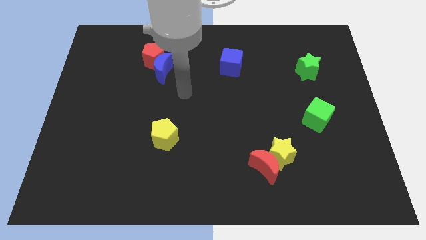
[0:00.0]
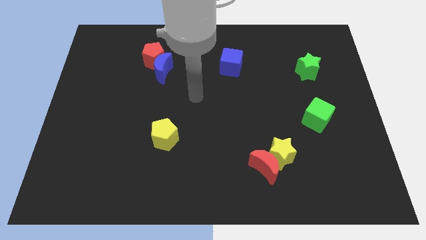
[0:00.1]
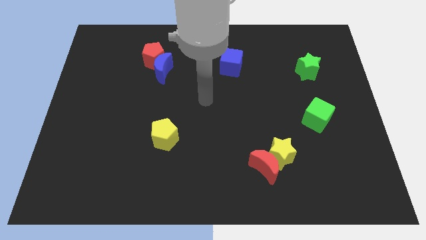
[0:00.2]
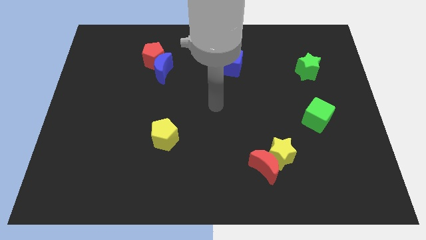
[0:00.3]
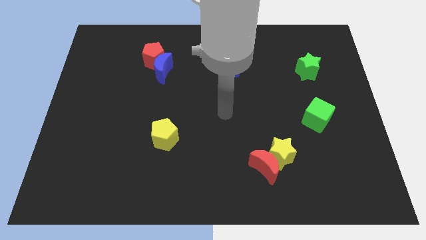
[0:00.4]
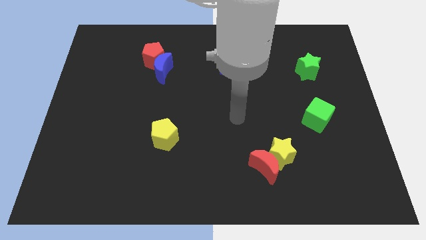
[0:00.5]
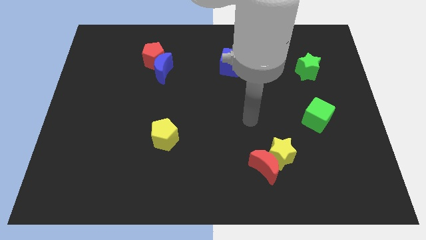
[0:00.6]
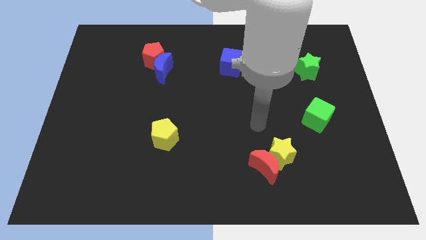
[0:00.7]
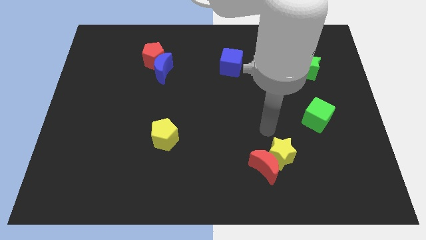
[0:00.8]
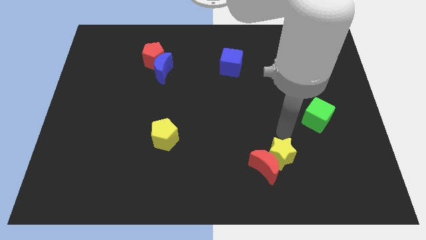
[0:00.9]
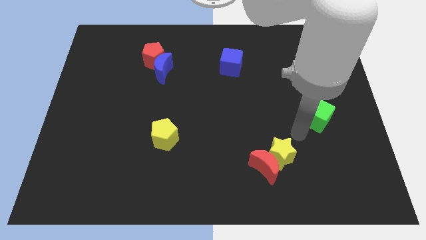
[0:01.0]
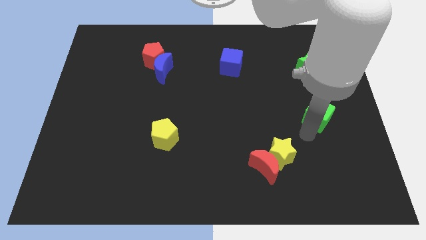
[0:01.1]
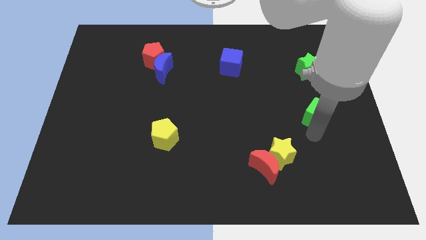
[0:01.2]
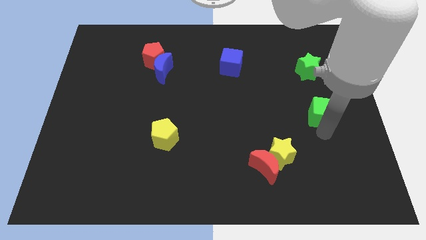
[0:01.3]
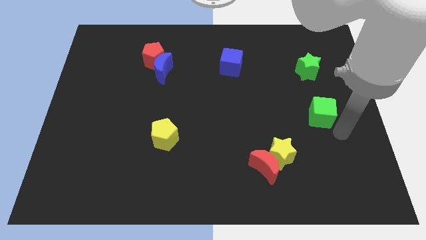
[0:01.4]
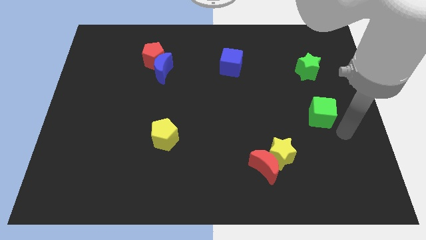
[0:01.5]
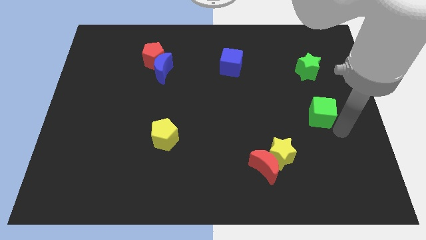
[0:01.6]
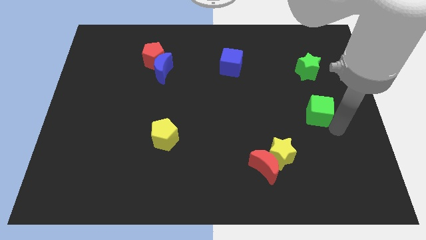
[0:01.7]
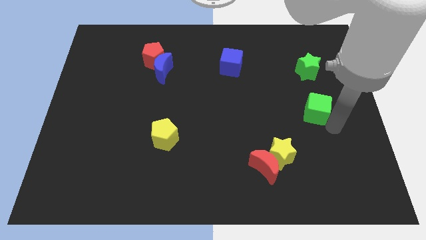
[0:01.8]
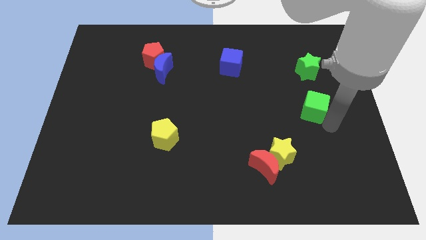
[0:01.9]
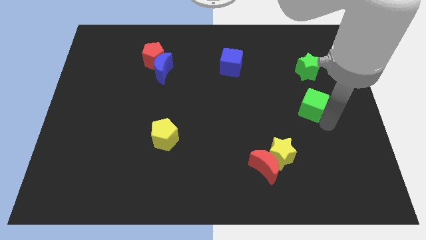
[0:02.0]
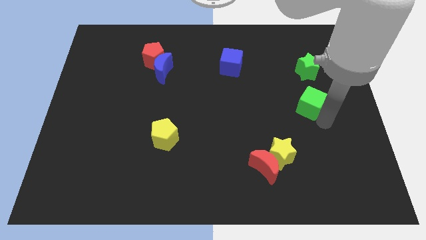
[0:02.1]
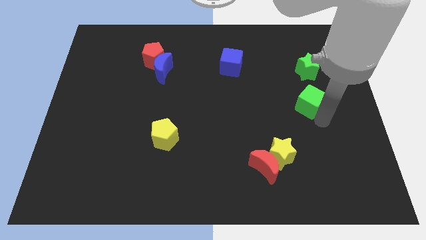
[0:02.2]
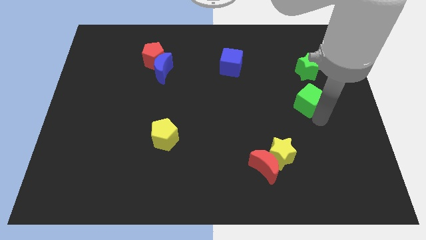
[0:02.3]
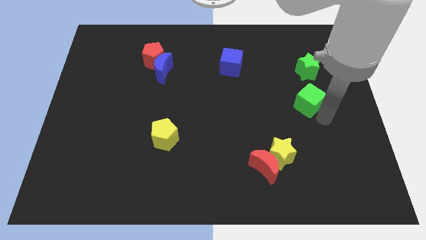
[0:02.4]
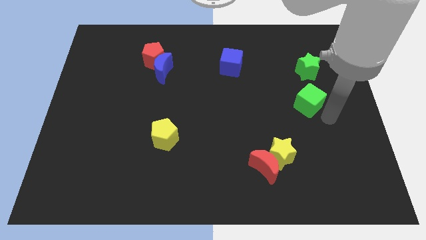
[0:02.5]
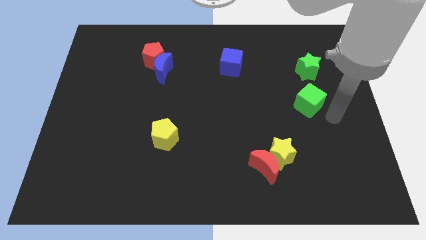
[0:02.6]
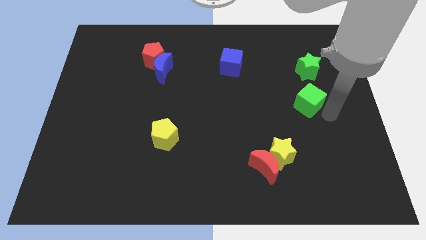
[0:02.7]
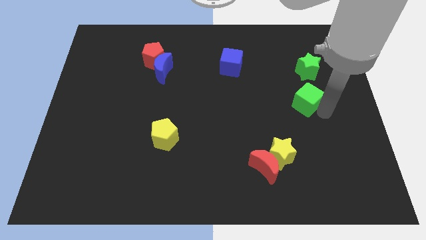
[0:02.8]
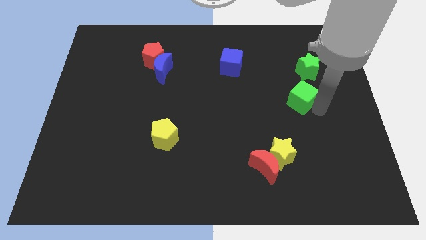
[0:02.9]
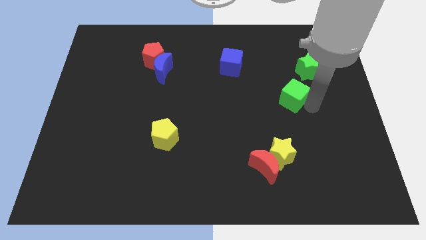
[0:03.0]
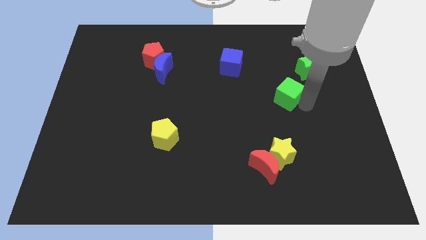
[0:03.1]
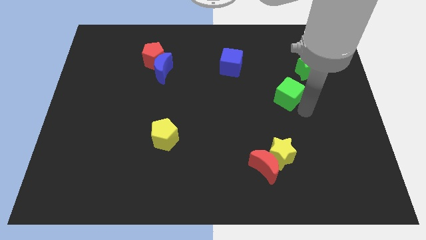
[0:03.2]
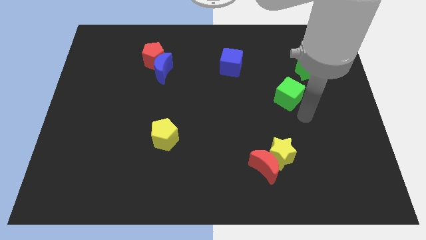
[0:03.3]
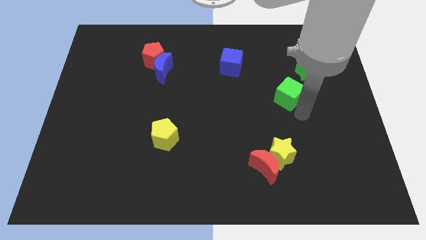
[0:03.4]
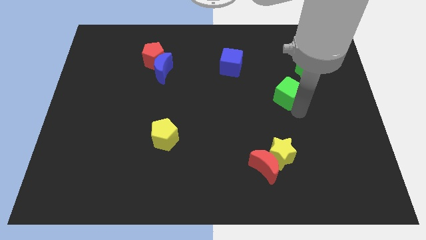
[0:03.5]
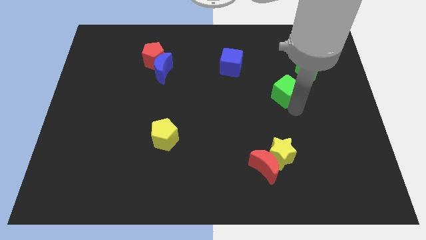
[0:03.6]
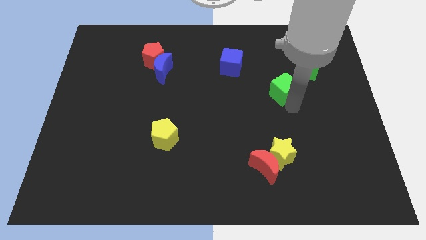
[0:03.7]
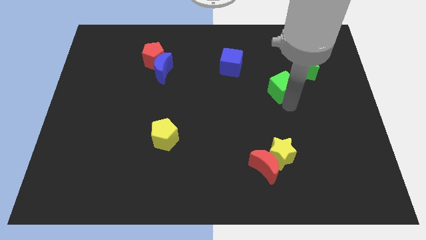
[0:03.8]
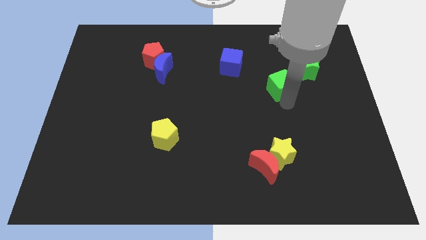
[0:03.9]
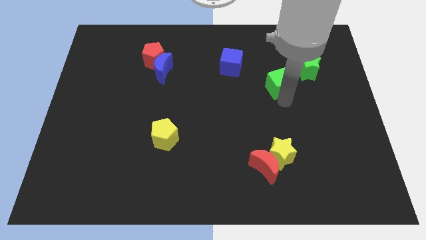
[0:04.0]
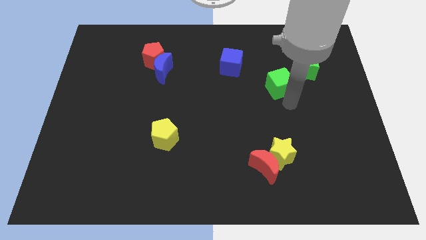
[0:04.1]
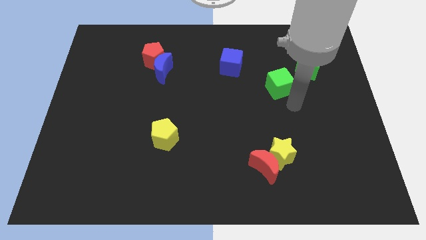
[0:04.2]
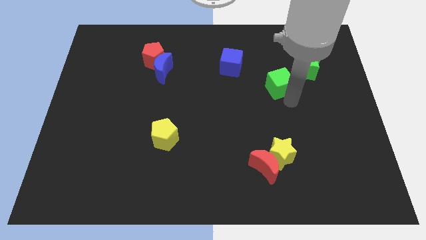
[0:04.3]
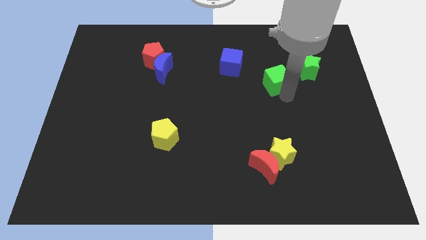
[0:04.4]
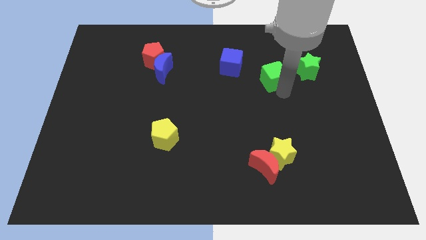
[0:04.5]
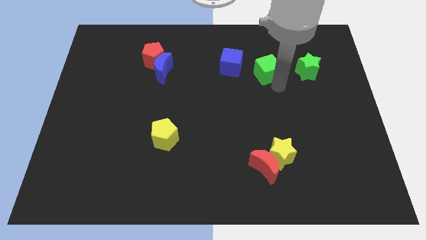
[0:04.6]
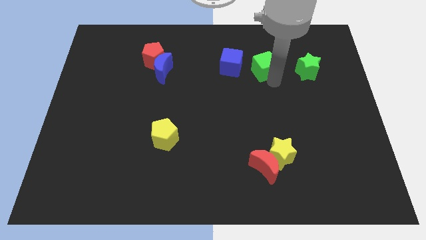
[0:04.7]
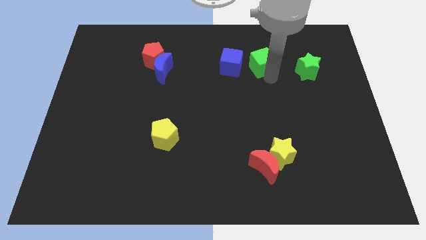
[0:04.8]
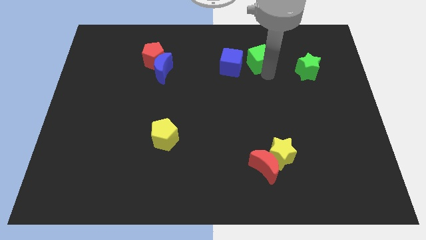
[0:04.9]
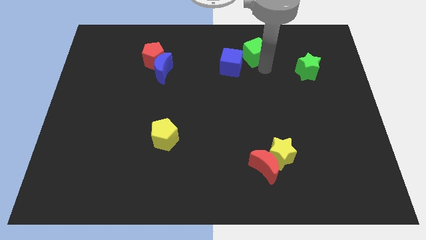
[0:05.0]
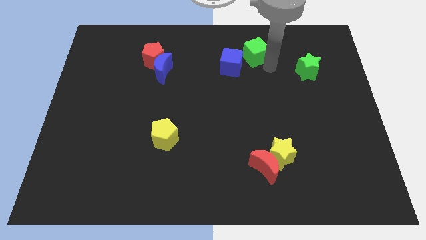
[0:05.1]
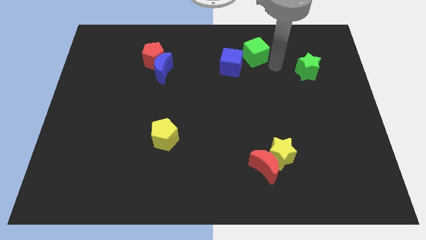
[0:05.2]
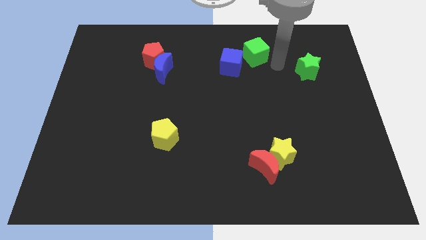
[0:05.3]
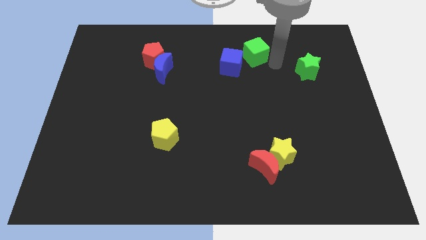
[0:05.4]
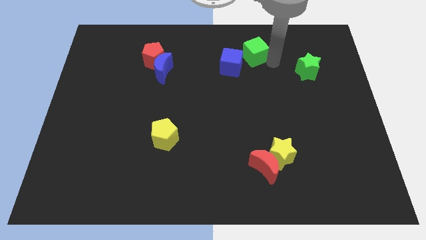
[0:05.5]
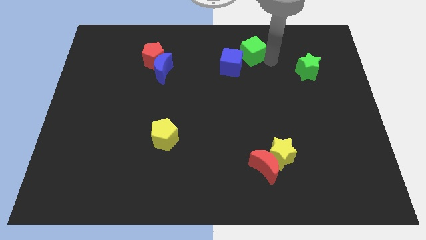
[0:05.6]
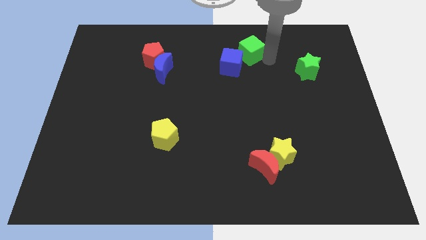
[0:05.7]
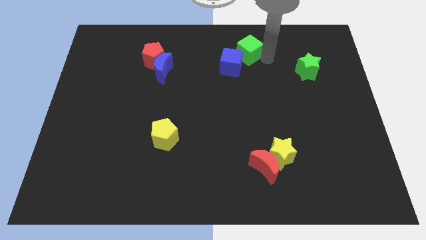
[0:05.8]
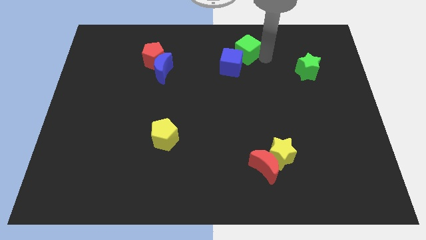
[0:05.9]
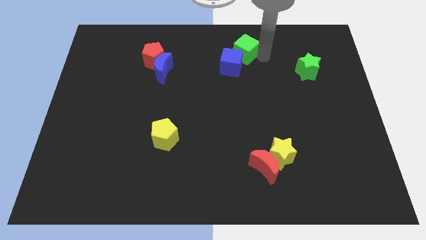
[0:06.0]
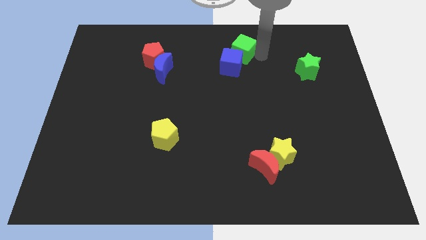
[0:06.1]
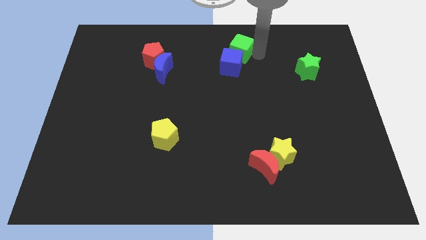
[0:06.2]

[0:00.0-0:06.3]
put the green cube to the top

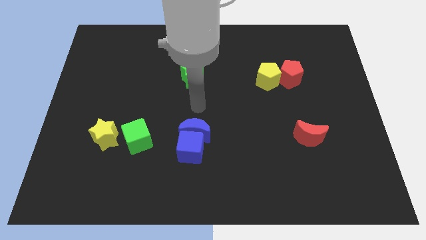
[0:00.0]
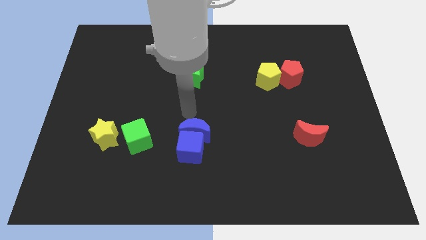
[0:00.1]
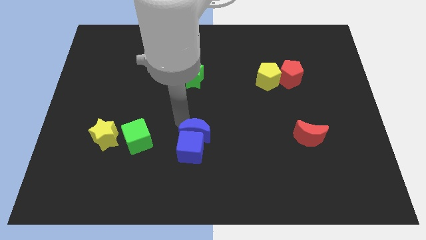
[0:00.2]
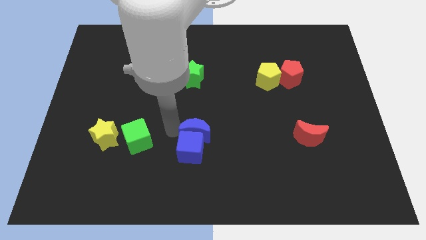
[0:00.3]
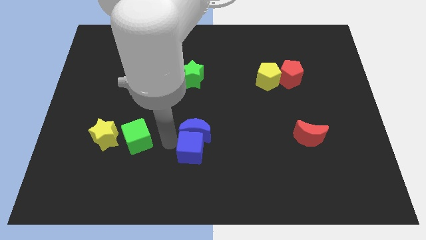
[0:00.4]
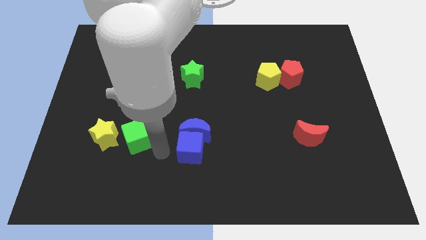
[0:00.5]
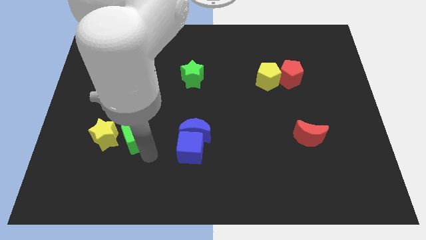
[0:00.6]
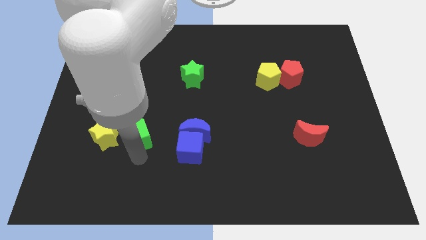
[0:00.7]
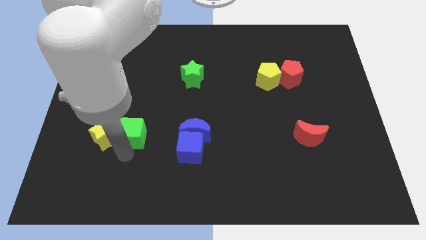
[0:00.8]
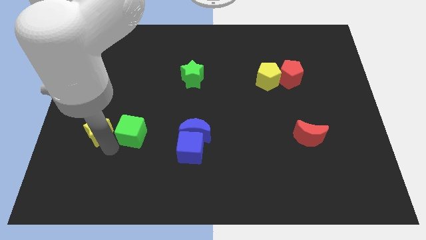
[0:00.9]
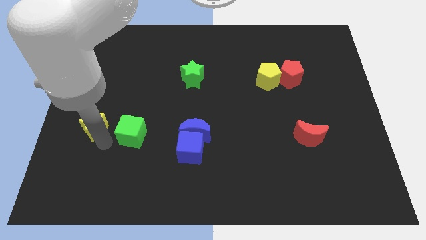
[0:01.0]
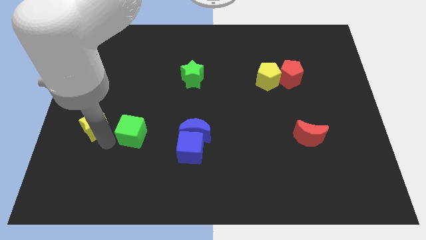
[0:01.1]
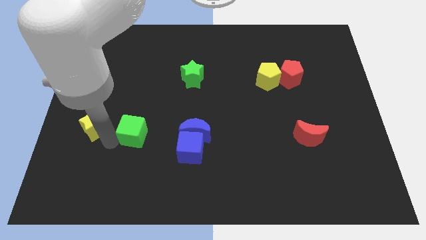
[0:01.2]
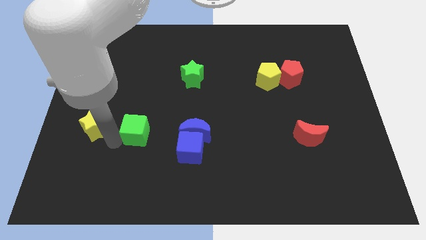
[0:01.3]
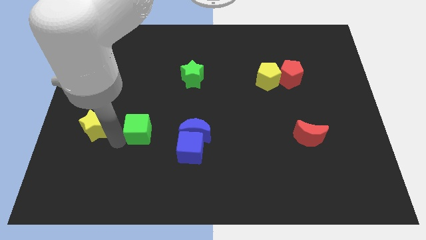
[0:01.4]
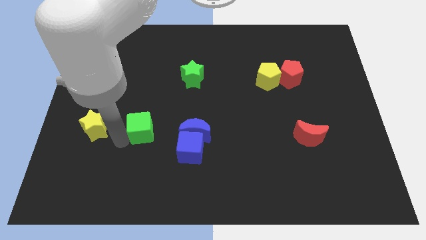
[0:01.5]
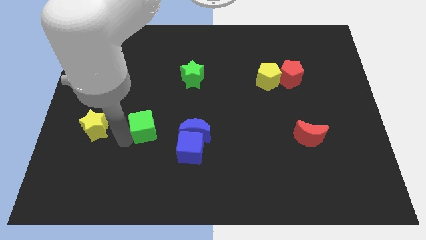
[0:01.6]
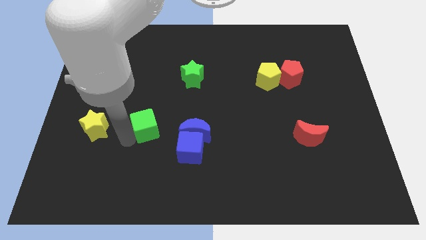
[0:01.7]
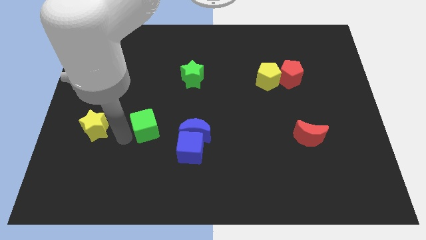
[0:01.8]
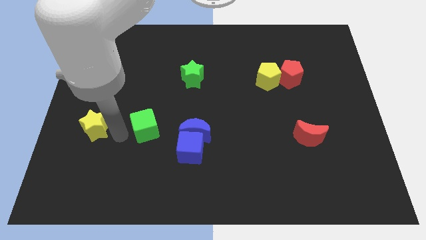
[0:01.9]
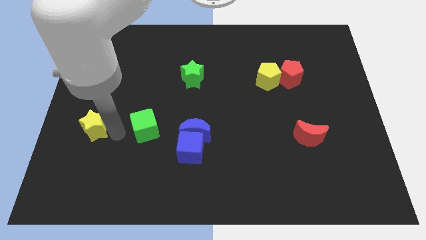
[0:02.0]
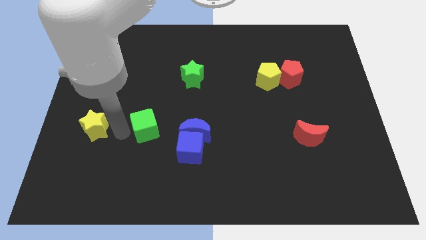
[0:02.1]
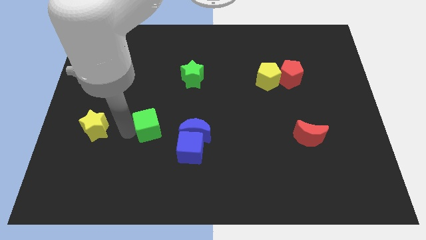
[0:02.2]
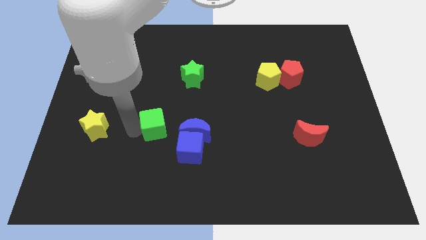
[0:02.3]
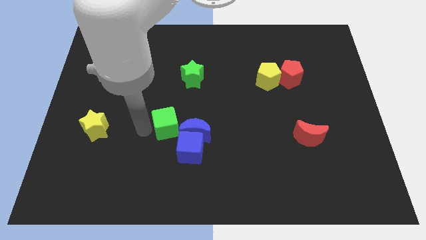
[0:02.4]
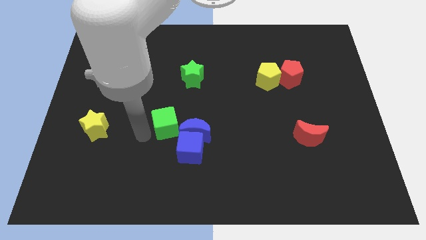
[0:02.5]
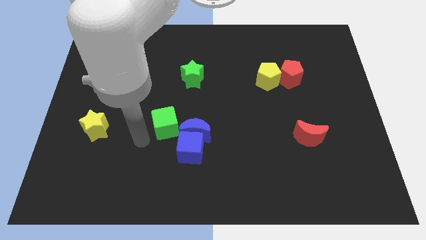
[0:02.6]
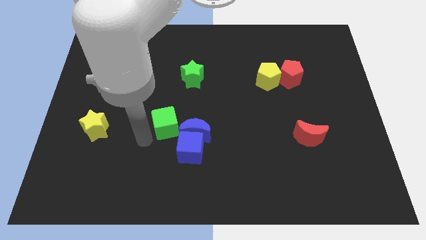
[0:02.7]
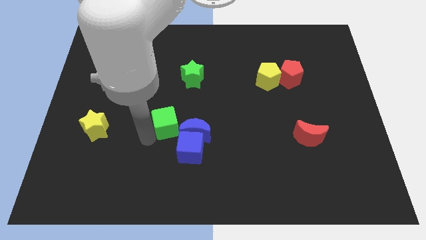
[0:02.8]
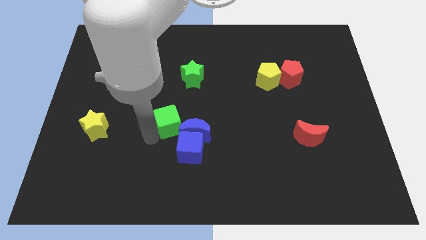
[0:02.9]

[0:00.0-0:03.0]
push the green cube to the middle
